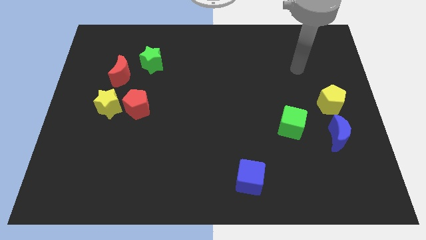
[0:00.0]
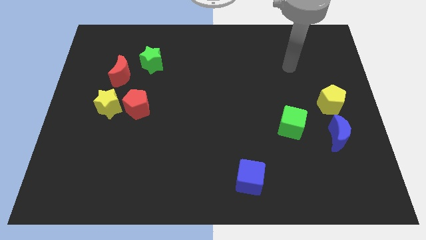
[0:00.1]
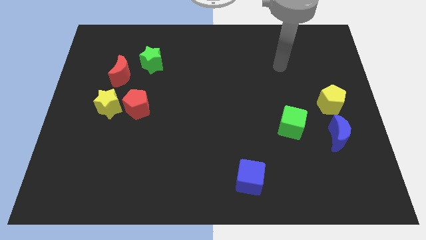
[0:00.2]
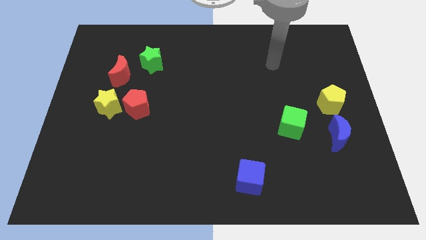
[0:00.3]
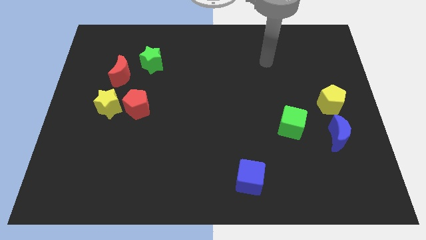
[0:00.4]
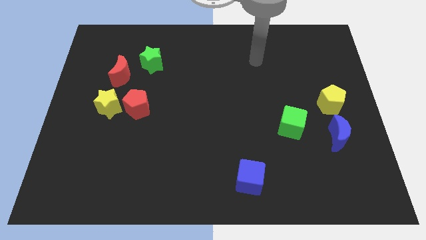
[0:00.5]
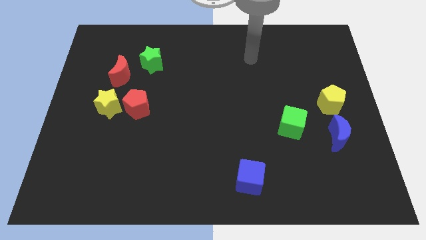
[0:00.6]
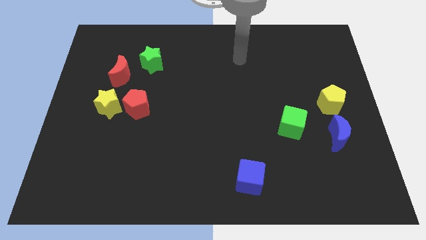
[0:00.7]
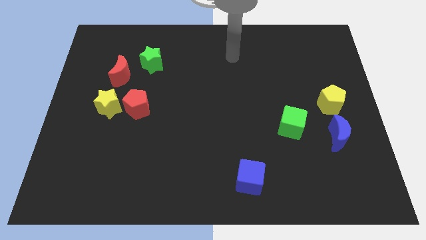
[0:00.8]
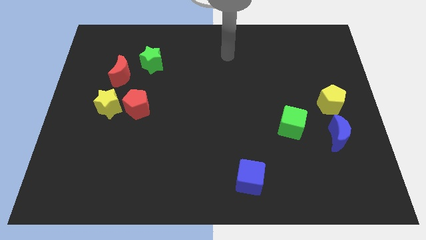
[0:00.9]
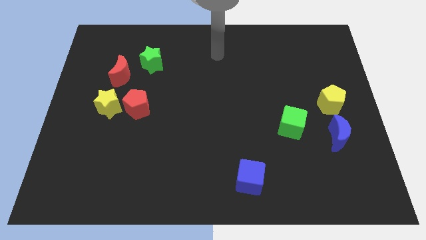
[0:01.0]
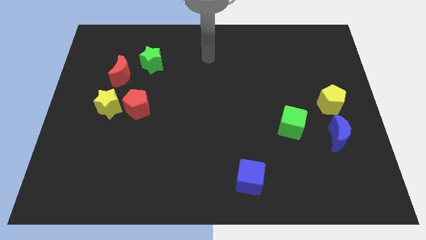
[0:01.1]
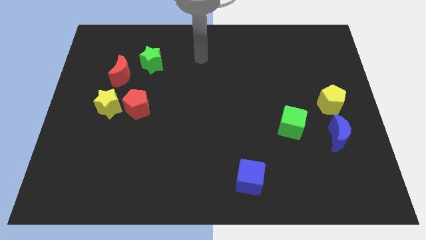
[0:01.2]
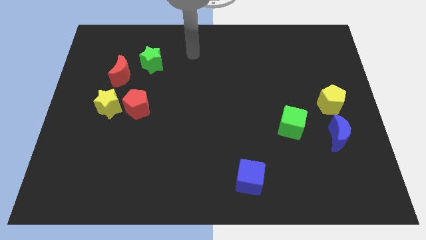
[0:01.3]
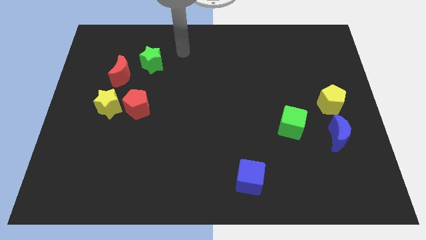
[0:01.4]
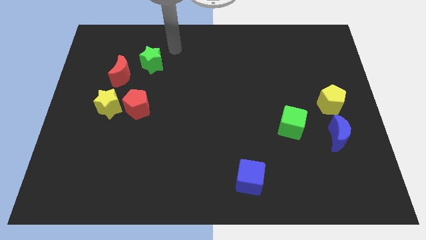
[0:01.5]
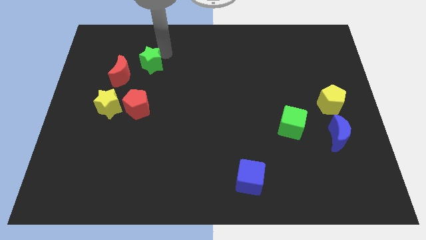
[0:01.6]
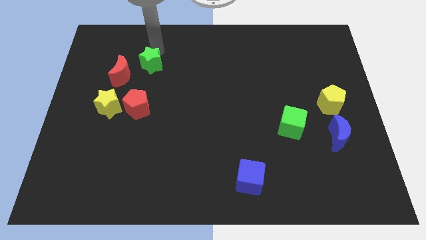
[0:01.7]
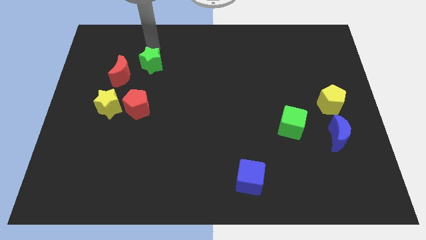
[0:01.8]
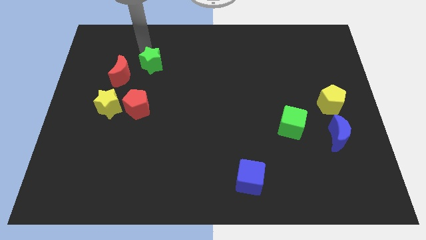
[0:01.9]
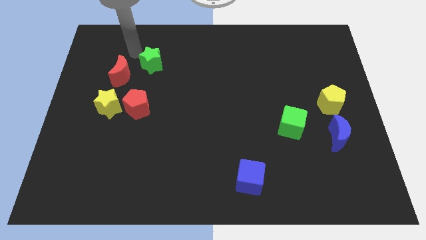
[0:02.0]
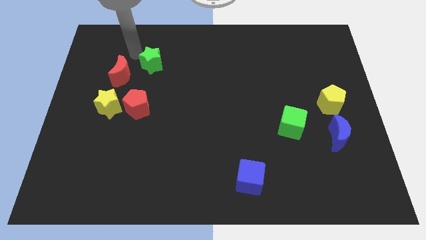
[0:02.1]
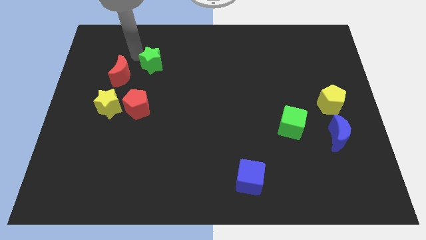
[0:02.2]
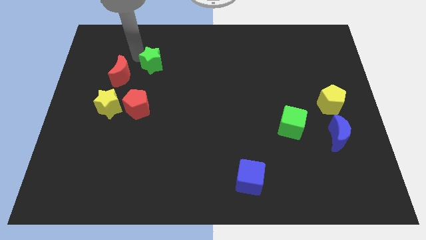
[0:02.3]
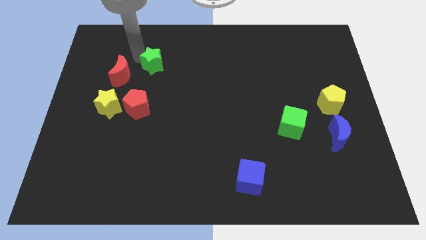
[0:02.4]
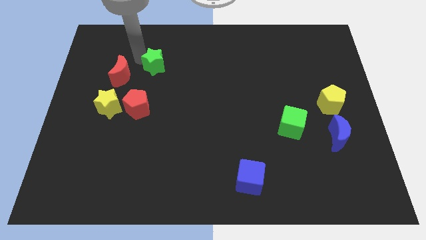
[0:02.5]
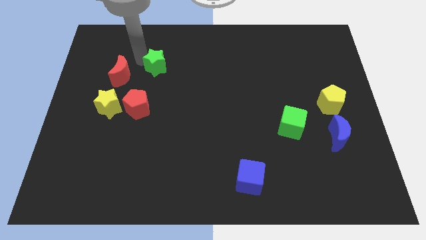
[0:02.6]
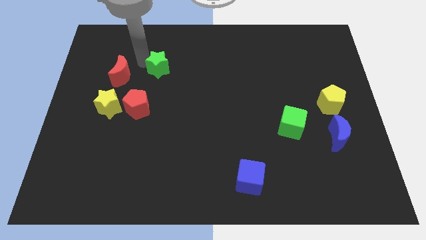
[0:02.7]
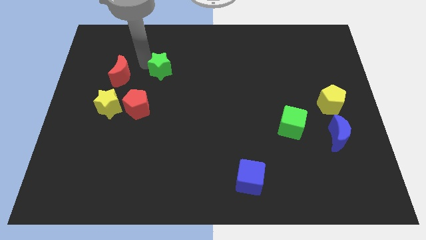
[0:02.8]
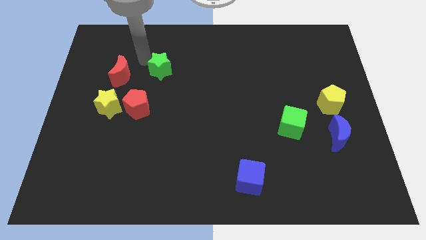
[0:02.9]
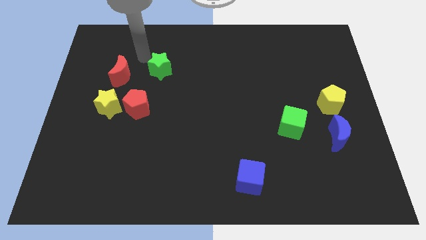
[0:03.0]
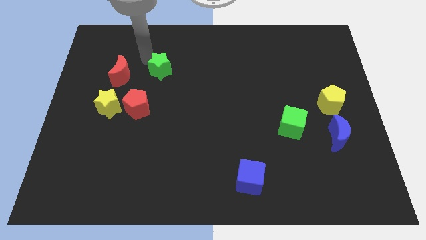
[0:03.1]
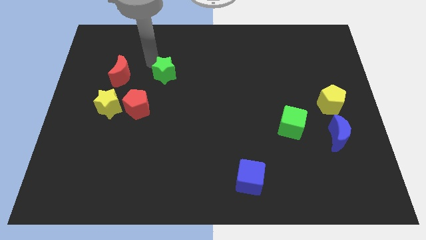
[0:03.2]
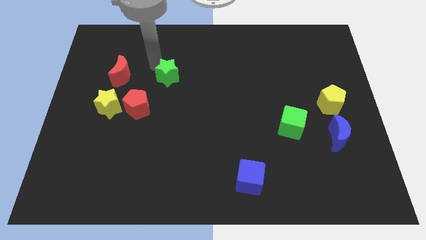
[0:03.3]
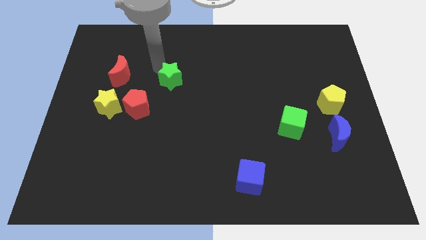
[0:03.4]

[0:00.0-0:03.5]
push the green star down and then right a little

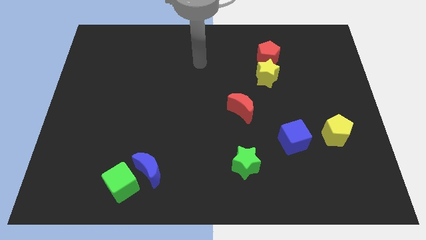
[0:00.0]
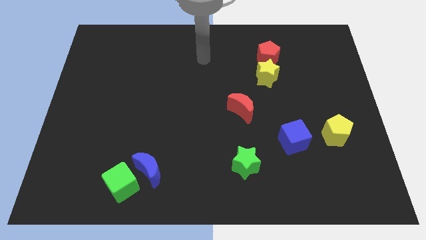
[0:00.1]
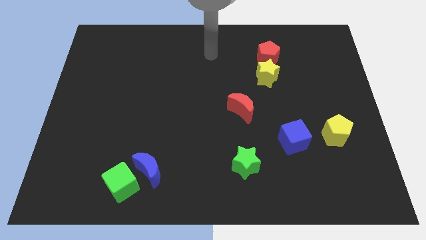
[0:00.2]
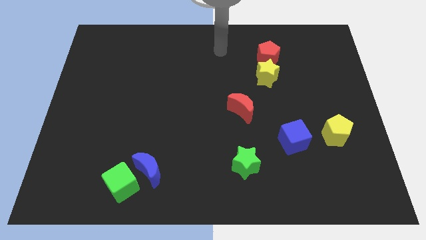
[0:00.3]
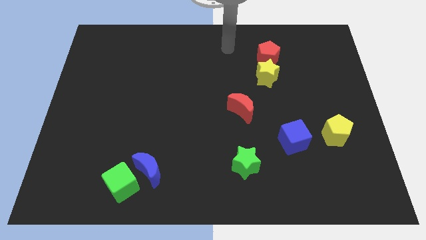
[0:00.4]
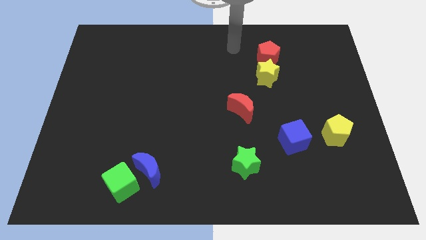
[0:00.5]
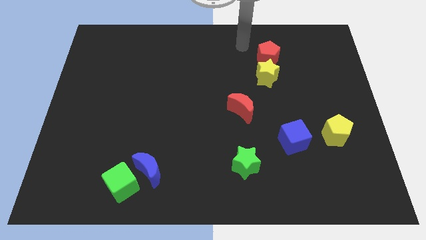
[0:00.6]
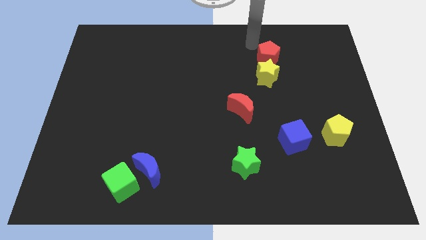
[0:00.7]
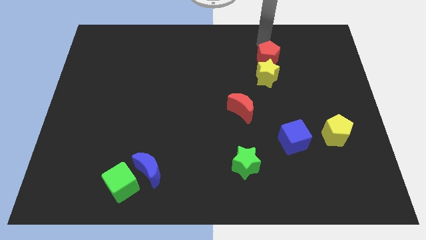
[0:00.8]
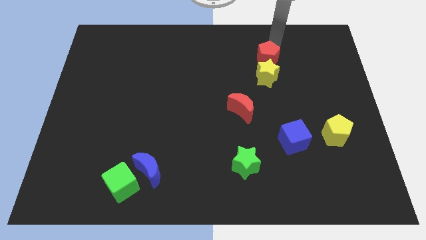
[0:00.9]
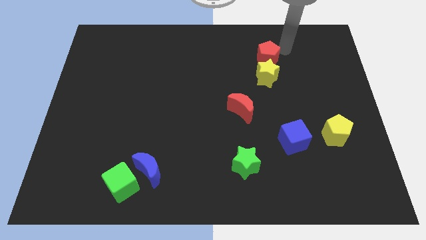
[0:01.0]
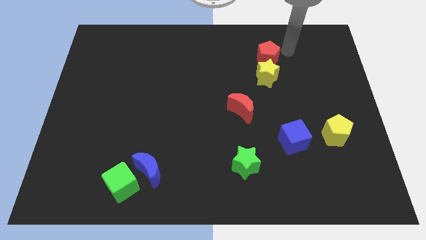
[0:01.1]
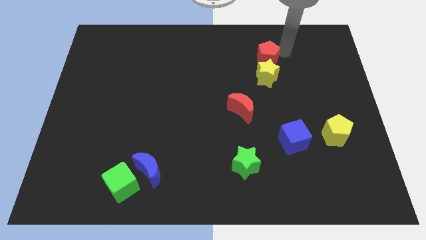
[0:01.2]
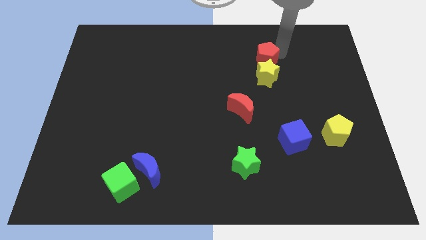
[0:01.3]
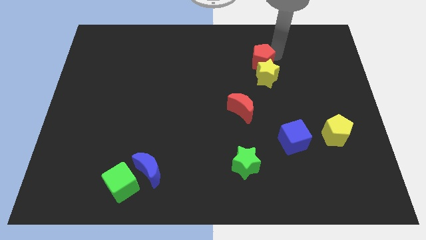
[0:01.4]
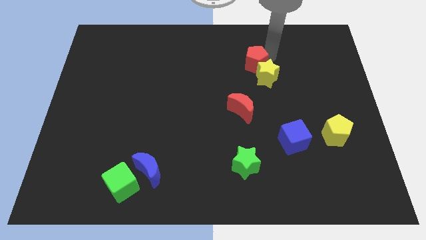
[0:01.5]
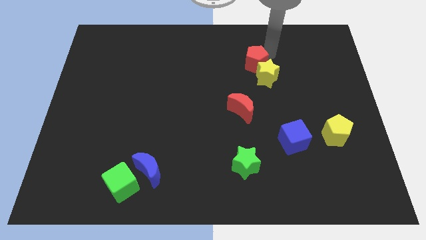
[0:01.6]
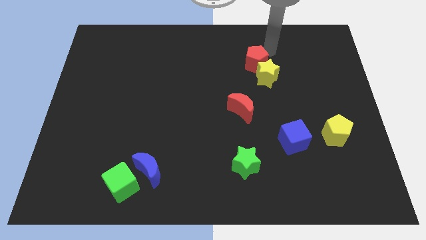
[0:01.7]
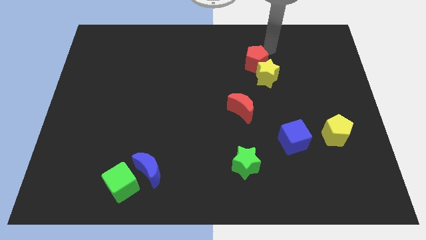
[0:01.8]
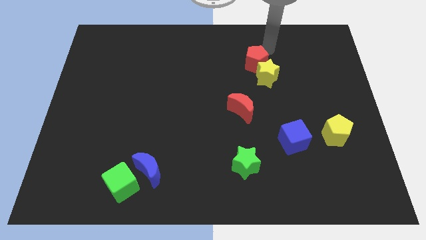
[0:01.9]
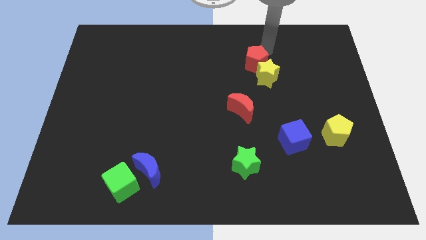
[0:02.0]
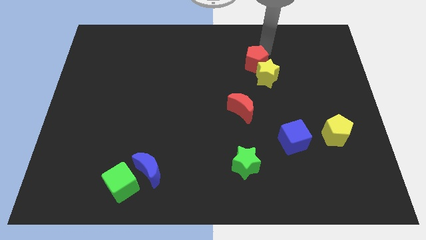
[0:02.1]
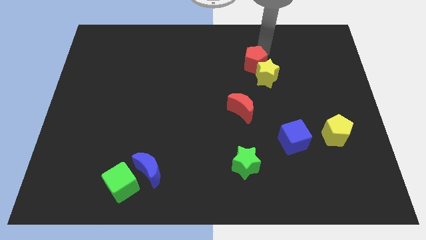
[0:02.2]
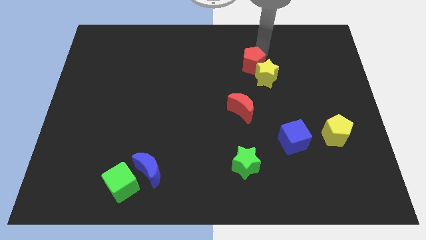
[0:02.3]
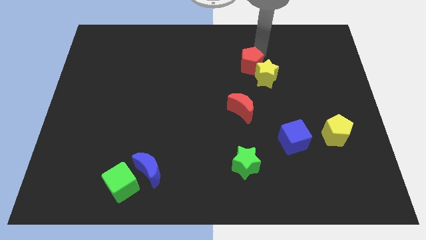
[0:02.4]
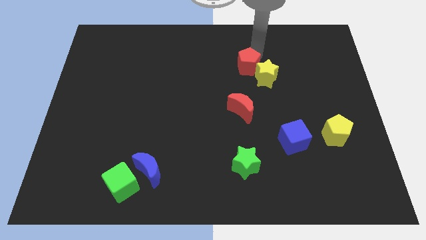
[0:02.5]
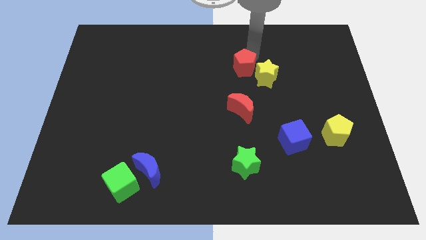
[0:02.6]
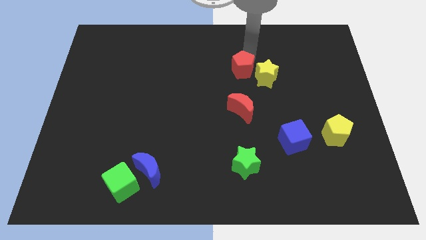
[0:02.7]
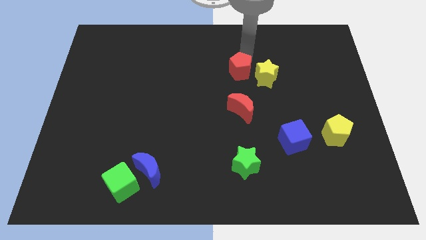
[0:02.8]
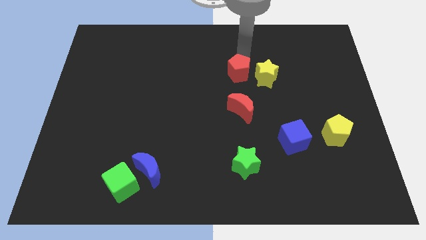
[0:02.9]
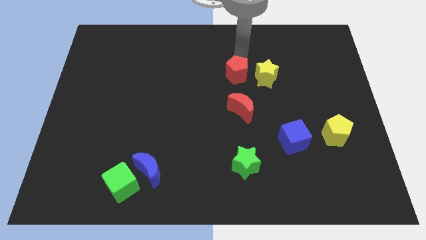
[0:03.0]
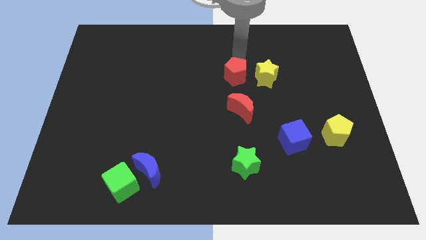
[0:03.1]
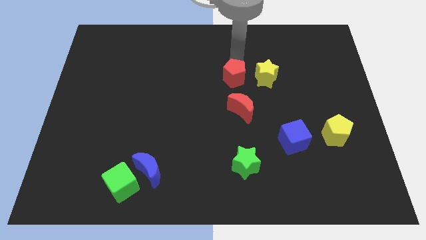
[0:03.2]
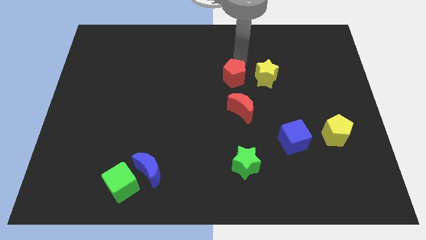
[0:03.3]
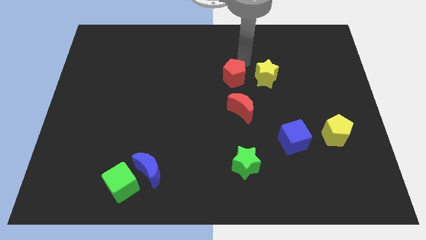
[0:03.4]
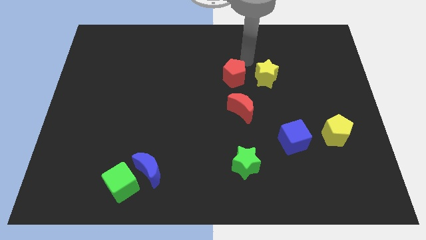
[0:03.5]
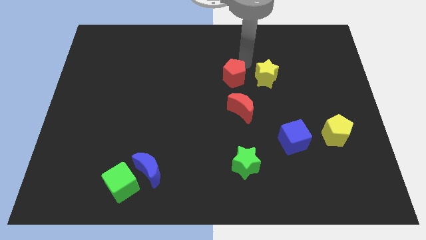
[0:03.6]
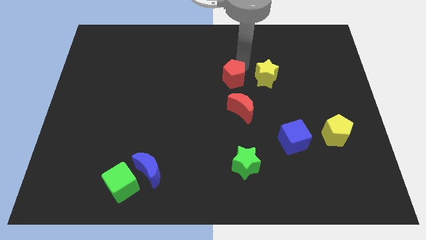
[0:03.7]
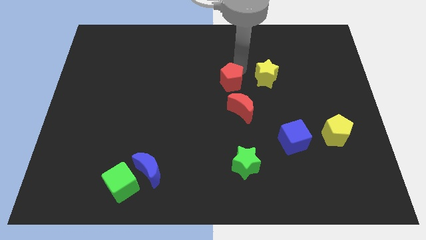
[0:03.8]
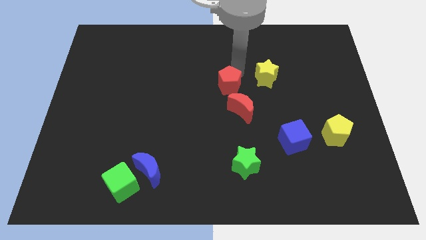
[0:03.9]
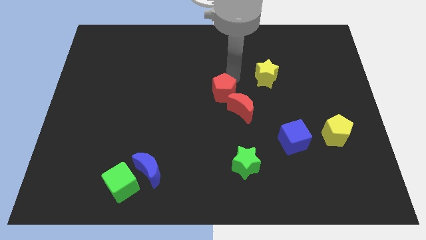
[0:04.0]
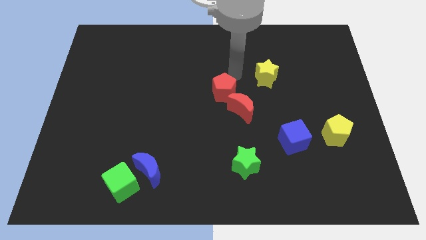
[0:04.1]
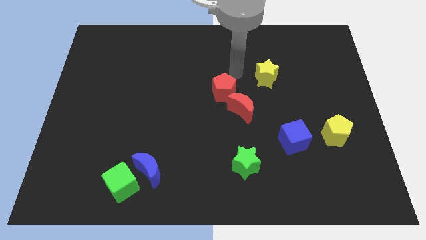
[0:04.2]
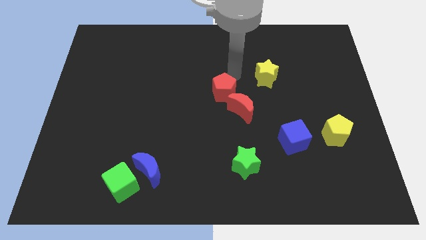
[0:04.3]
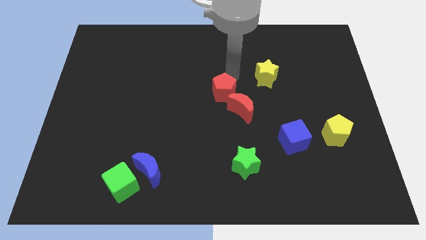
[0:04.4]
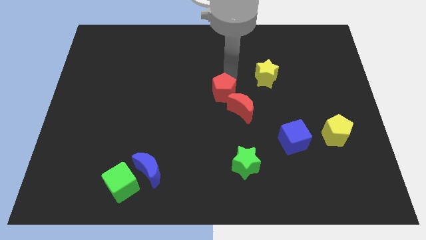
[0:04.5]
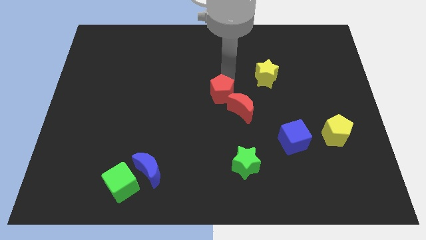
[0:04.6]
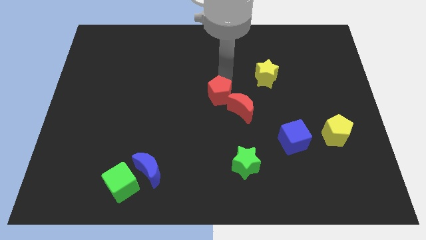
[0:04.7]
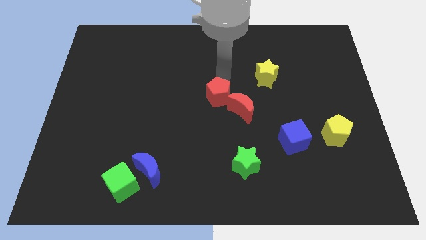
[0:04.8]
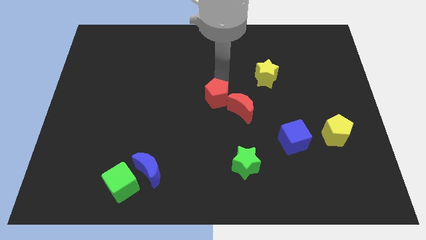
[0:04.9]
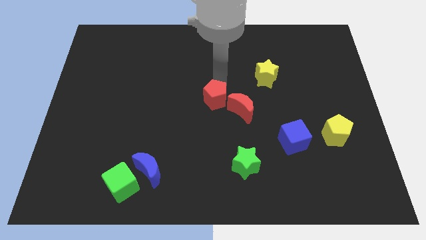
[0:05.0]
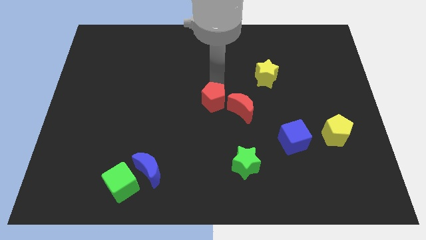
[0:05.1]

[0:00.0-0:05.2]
slide the red pentagon downwards and left diagonally
